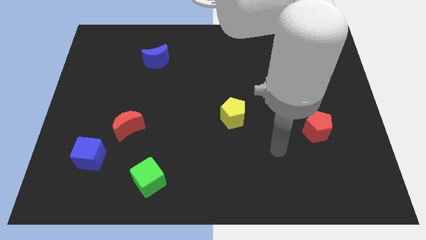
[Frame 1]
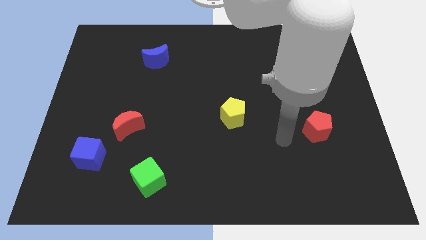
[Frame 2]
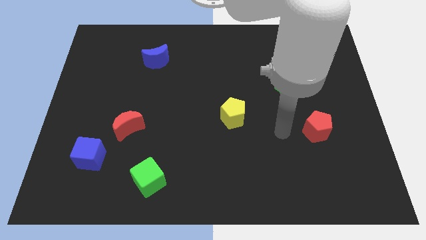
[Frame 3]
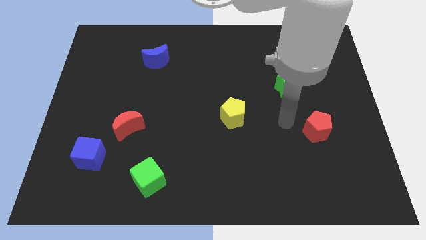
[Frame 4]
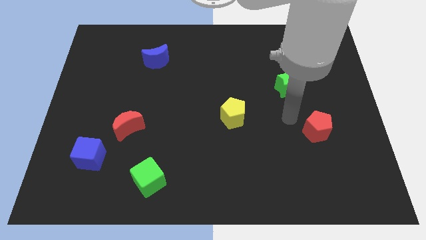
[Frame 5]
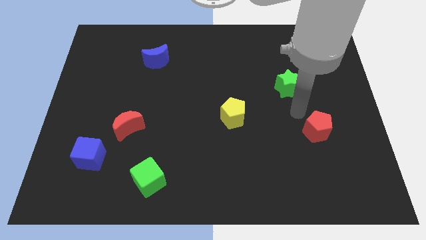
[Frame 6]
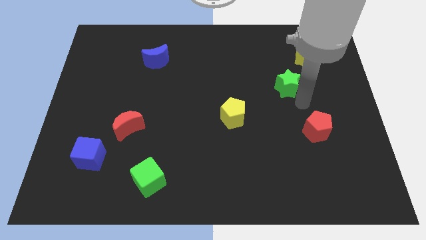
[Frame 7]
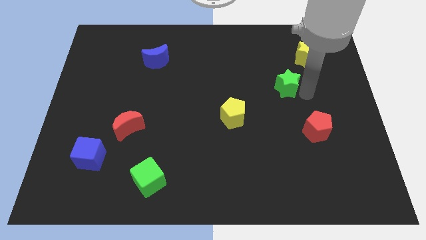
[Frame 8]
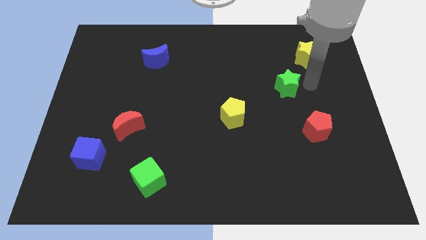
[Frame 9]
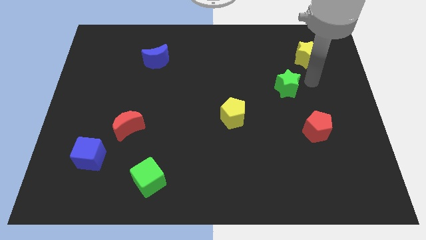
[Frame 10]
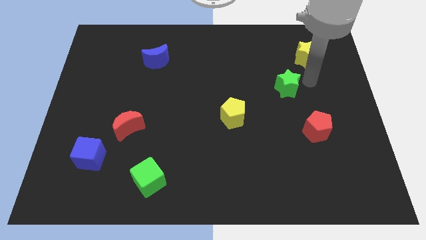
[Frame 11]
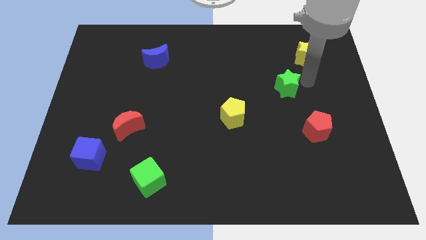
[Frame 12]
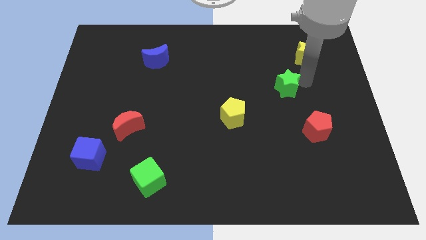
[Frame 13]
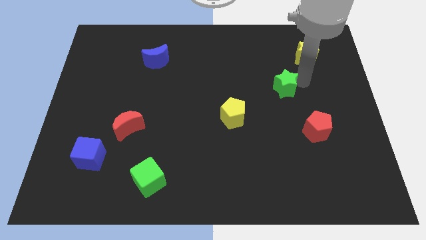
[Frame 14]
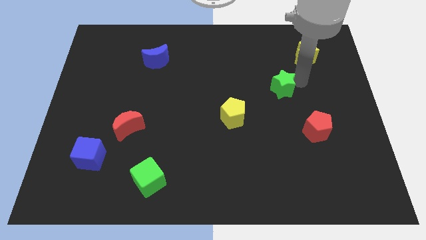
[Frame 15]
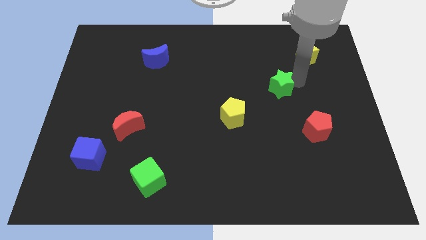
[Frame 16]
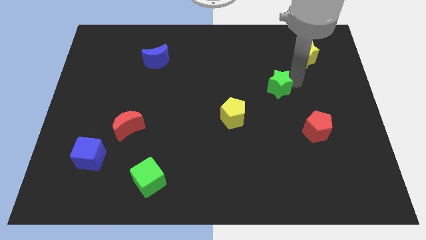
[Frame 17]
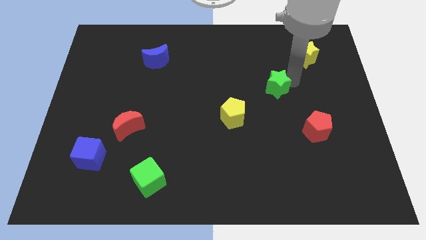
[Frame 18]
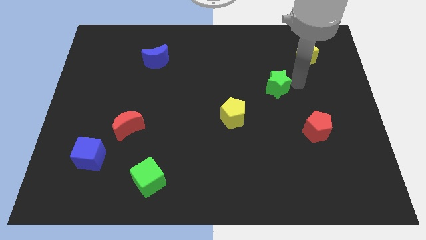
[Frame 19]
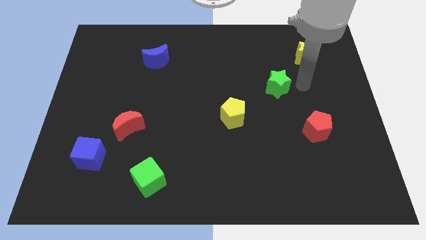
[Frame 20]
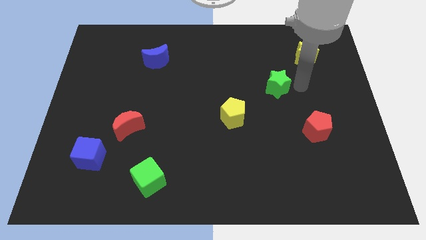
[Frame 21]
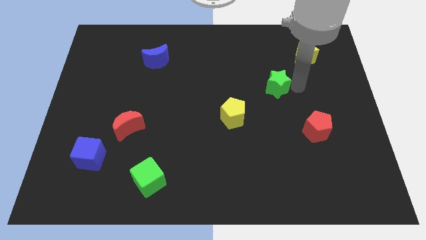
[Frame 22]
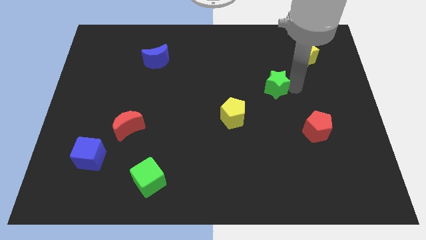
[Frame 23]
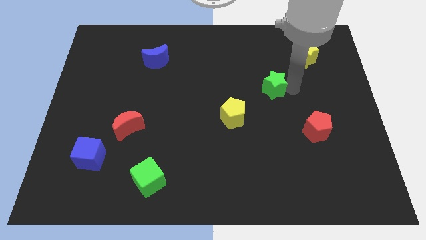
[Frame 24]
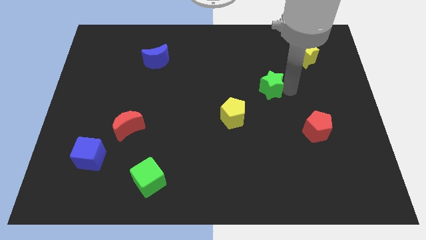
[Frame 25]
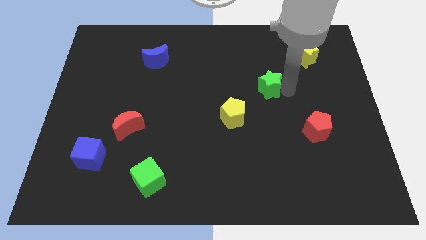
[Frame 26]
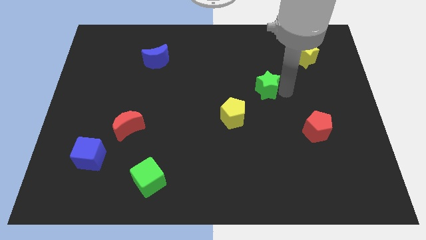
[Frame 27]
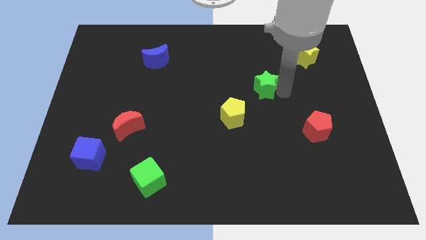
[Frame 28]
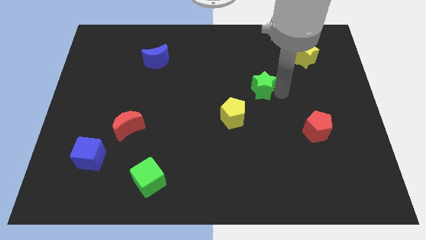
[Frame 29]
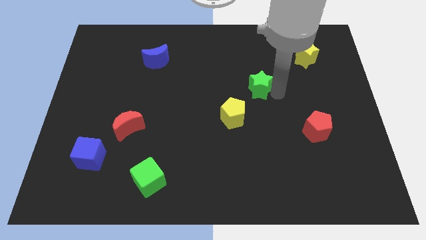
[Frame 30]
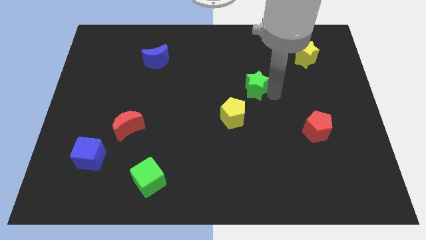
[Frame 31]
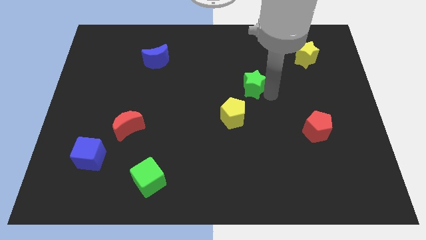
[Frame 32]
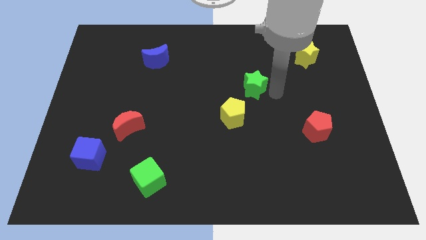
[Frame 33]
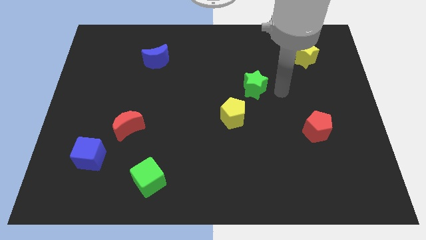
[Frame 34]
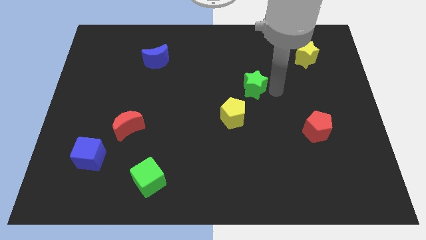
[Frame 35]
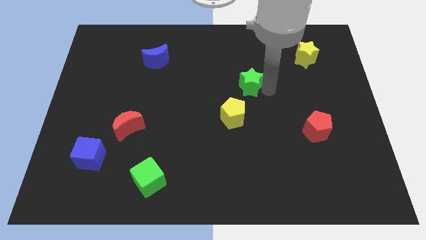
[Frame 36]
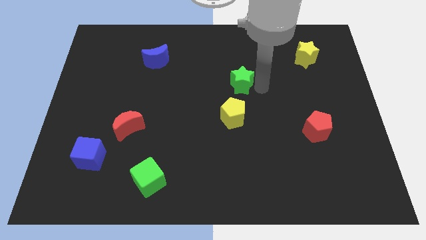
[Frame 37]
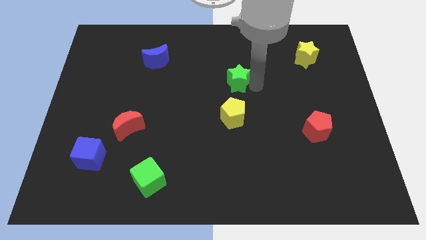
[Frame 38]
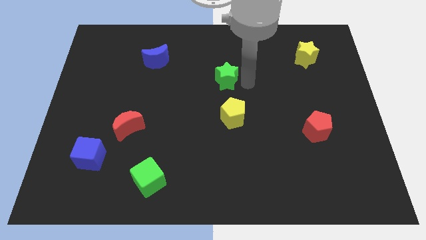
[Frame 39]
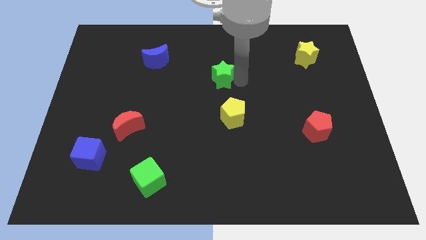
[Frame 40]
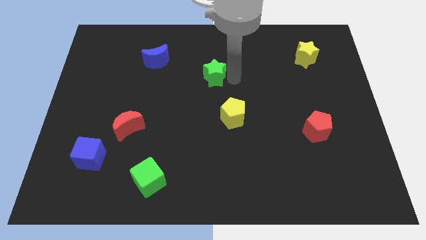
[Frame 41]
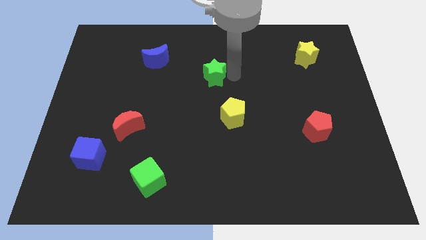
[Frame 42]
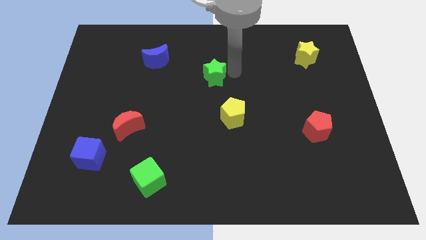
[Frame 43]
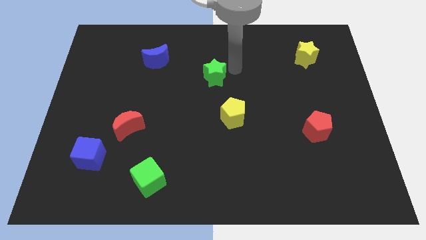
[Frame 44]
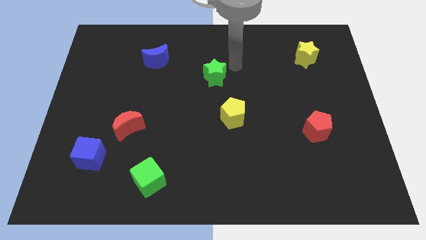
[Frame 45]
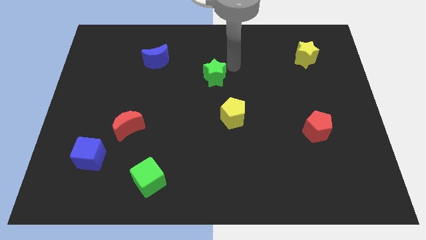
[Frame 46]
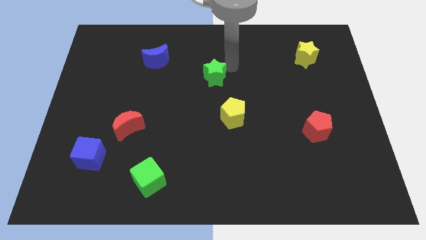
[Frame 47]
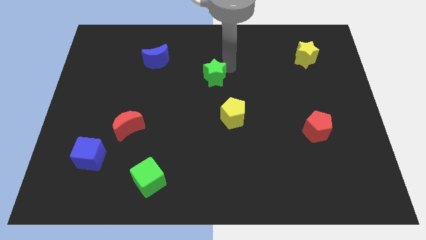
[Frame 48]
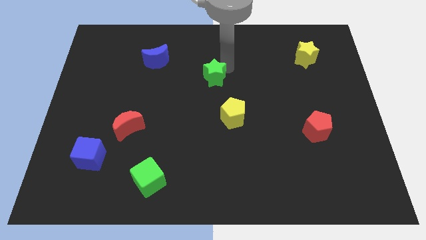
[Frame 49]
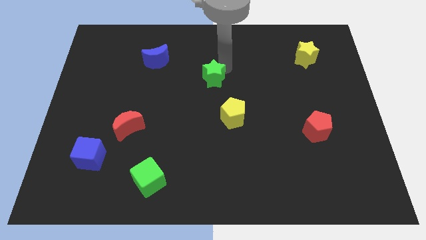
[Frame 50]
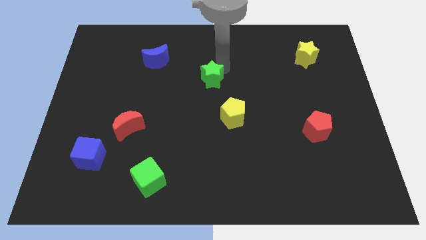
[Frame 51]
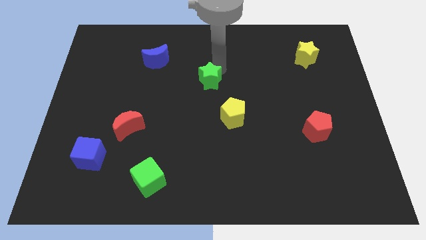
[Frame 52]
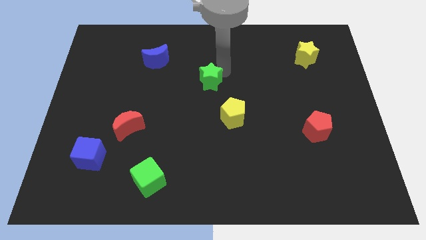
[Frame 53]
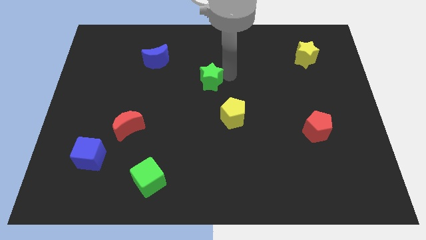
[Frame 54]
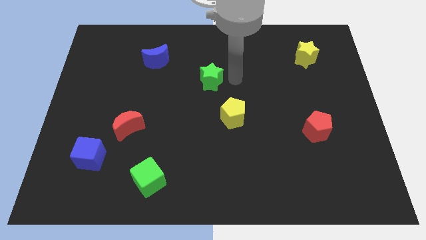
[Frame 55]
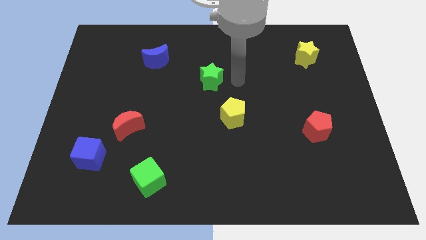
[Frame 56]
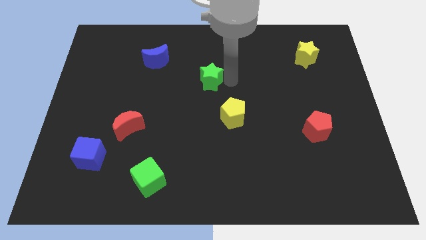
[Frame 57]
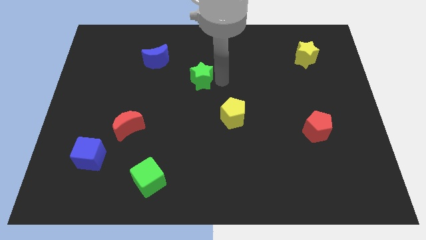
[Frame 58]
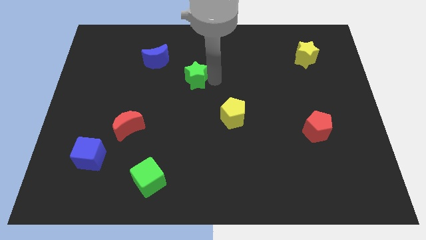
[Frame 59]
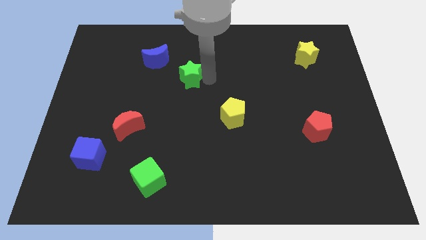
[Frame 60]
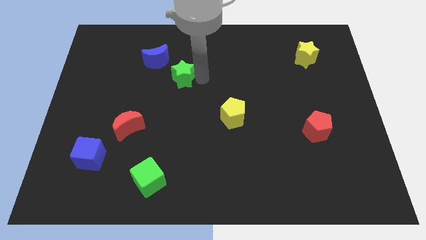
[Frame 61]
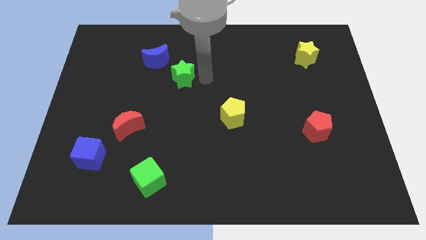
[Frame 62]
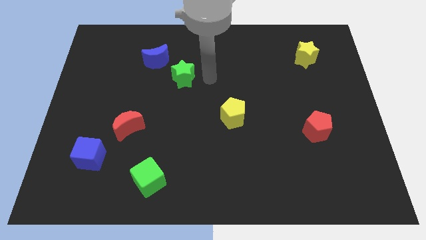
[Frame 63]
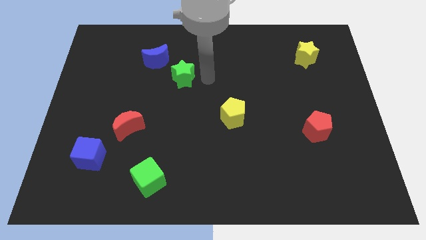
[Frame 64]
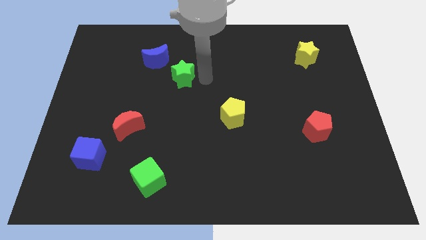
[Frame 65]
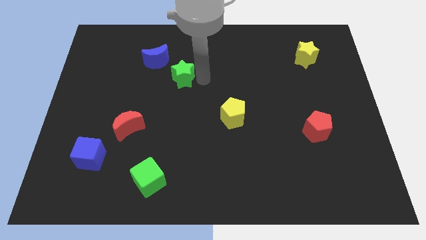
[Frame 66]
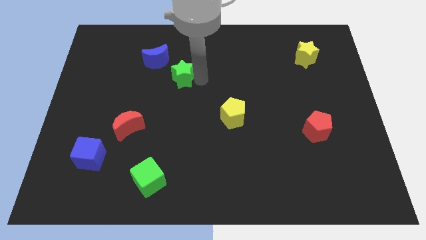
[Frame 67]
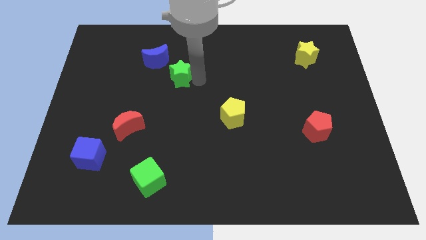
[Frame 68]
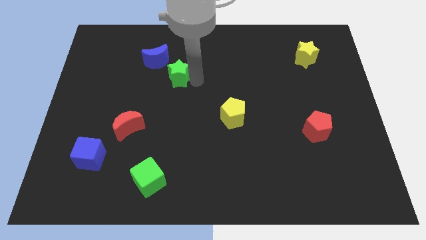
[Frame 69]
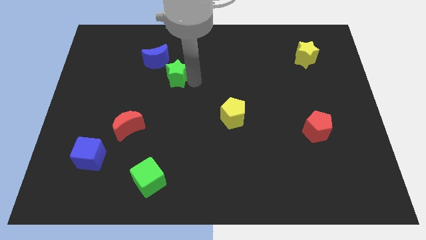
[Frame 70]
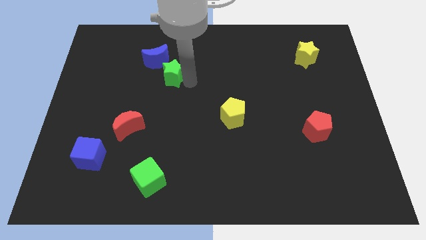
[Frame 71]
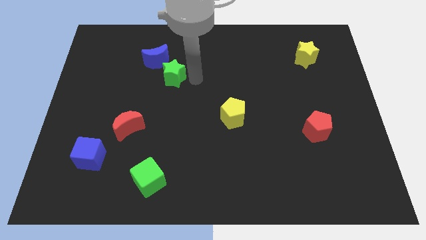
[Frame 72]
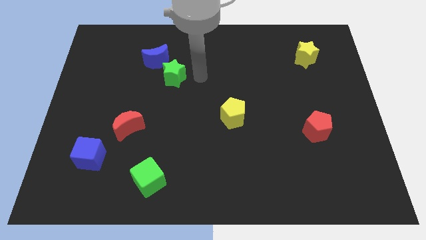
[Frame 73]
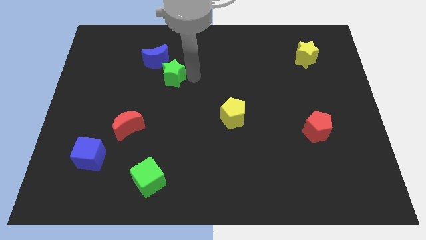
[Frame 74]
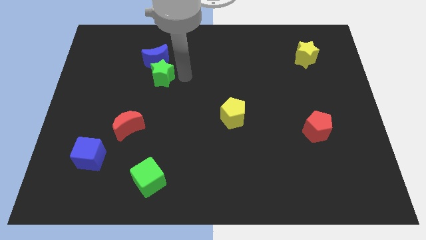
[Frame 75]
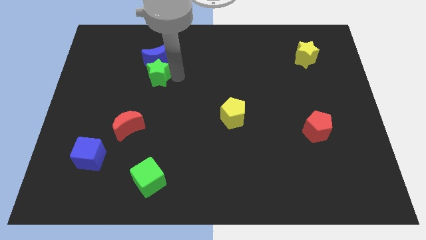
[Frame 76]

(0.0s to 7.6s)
move the green star diagonally down and to the left of the blue moon
